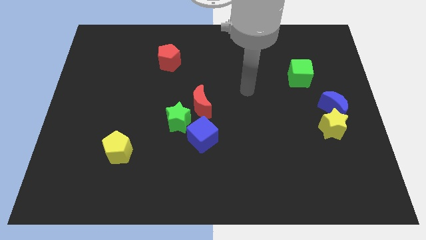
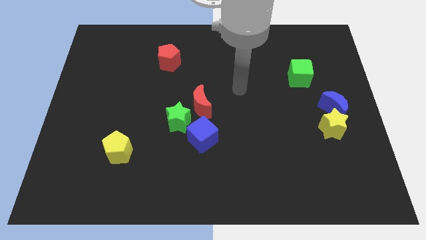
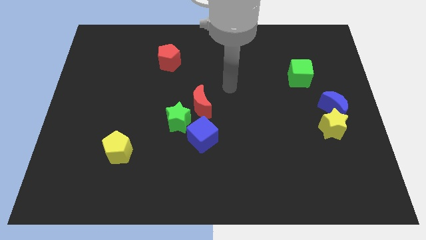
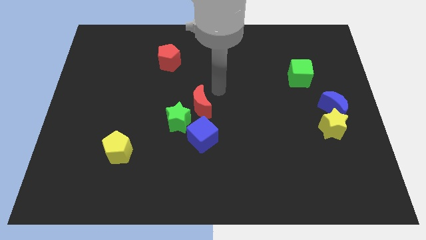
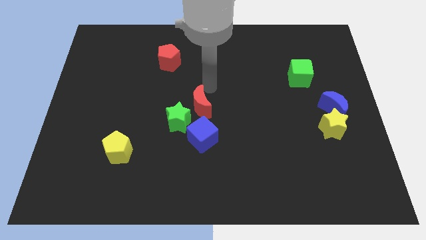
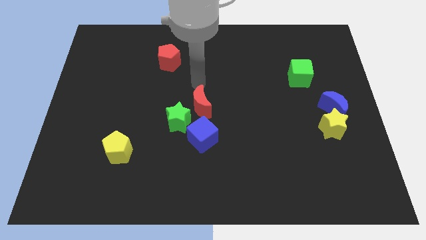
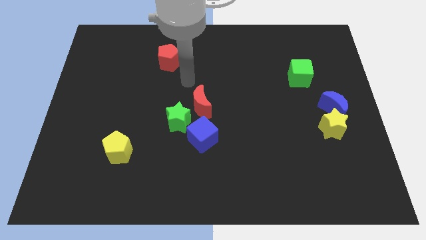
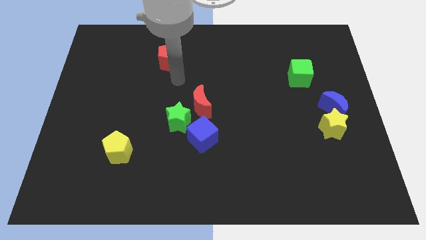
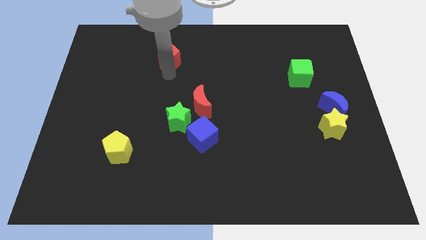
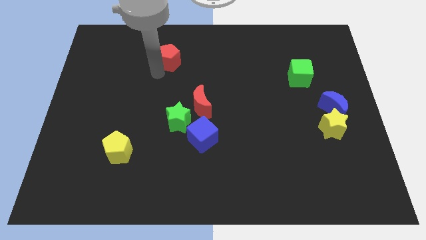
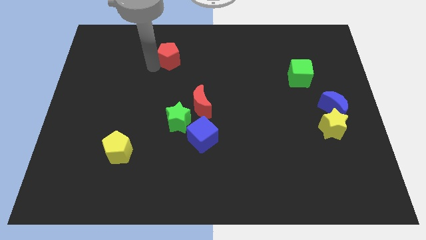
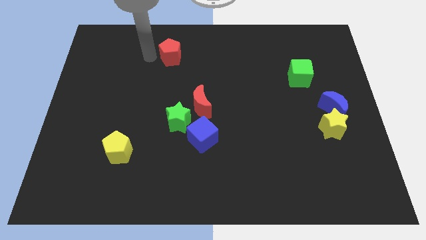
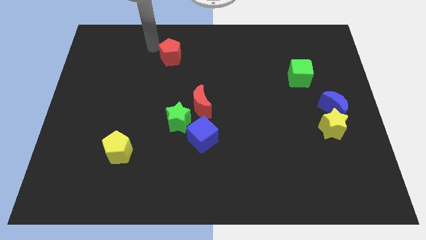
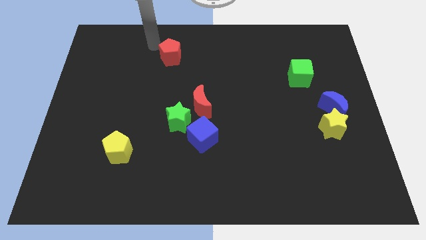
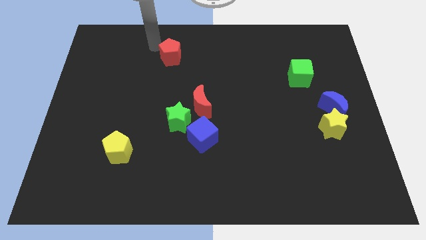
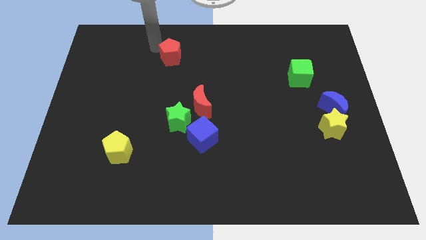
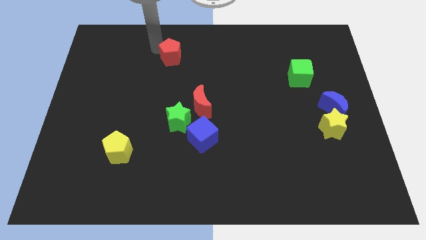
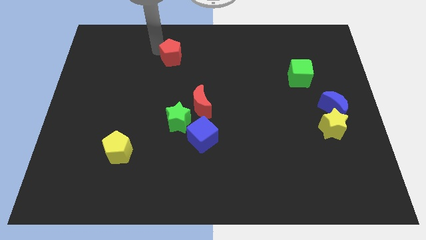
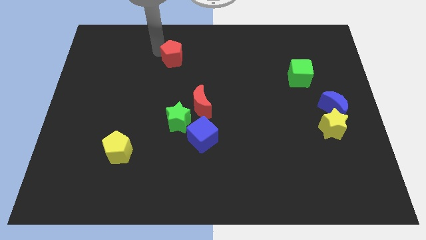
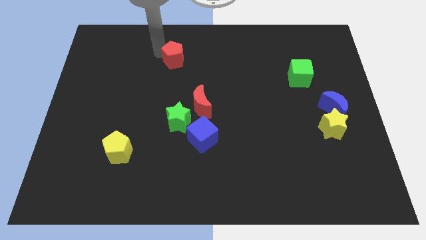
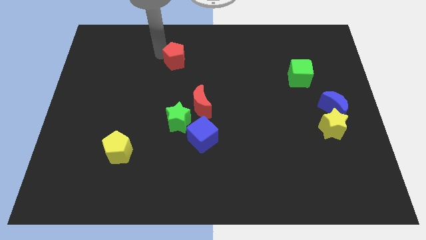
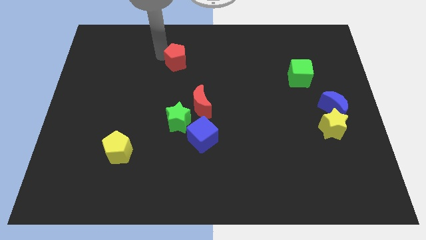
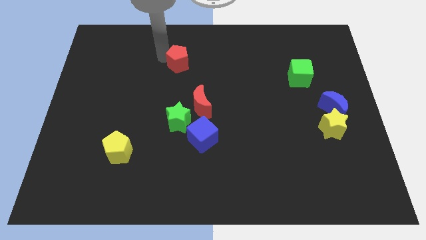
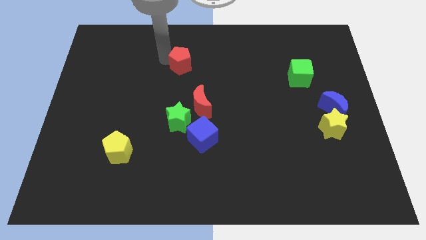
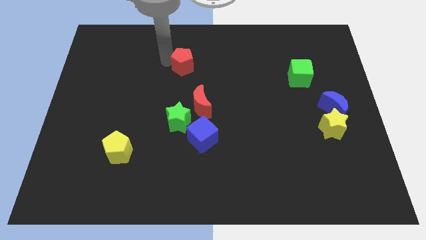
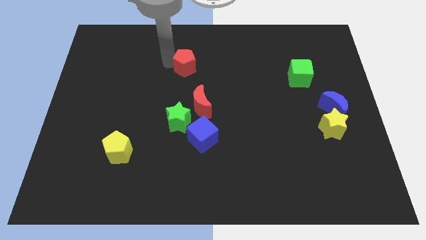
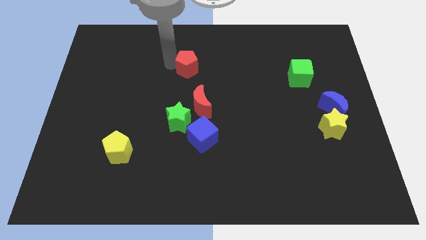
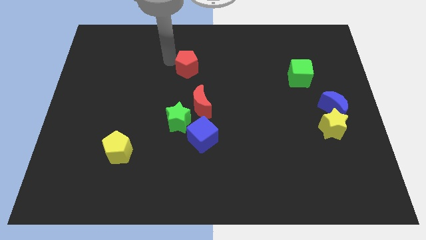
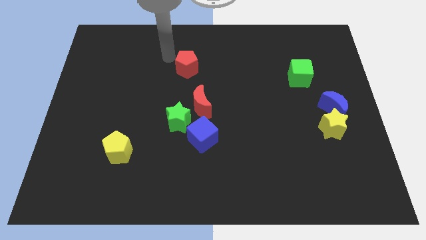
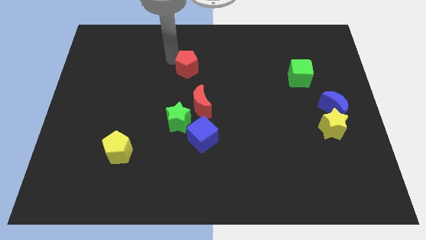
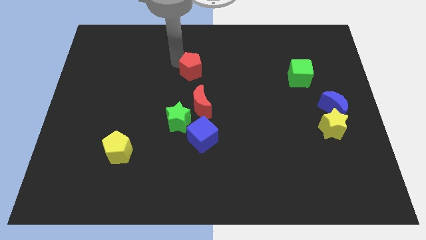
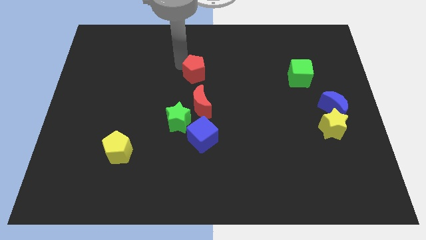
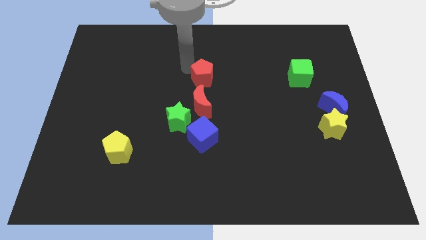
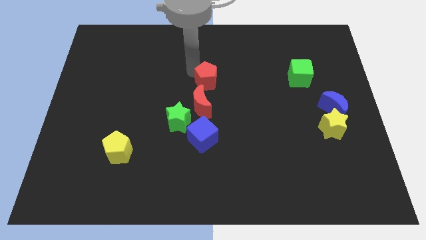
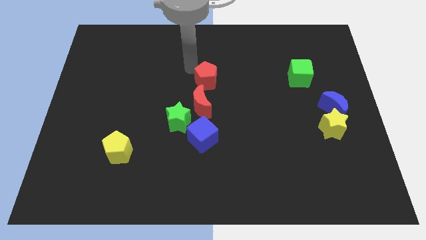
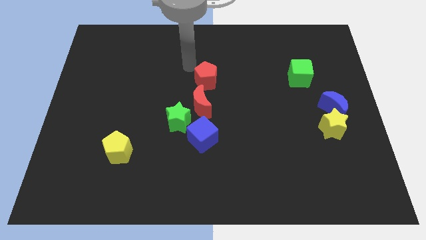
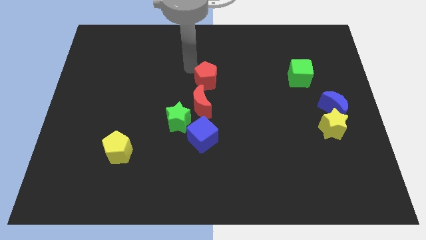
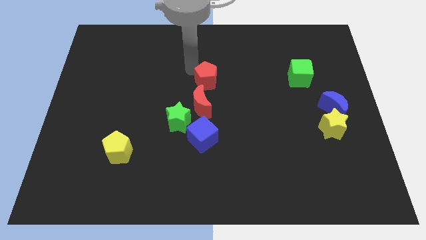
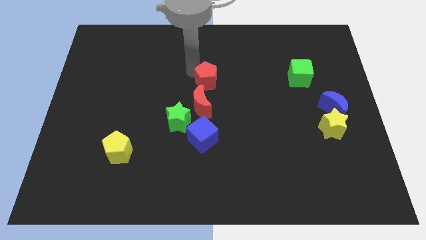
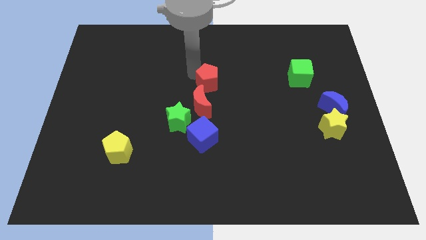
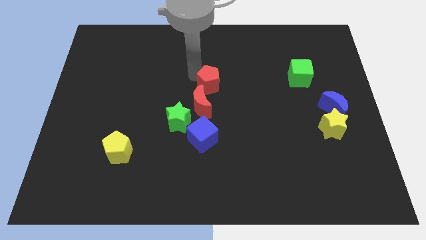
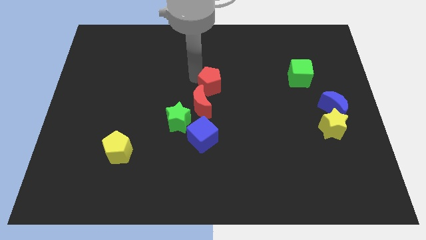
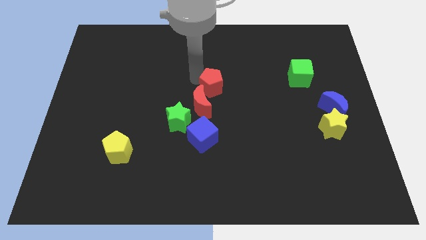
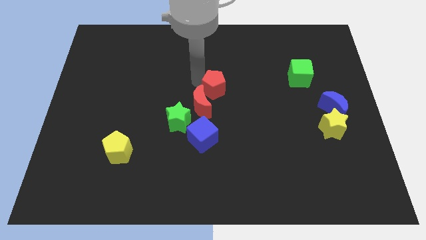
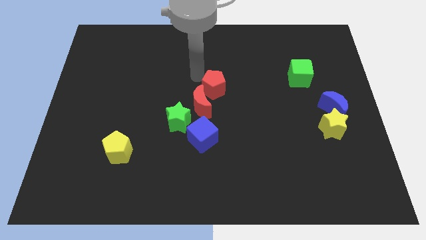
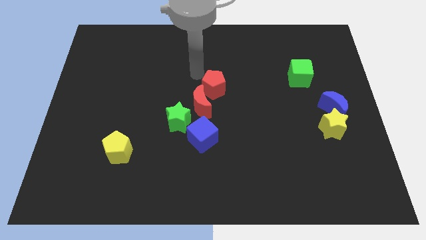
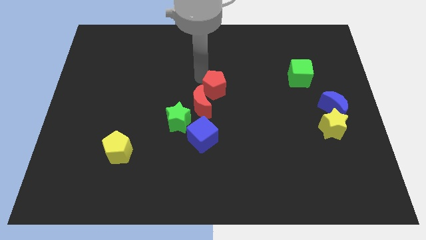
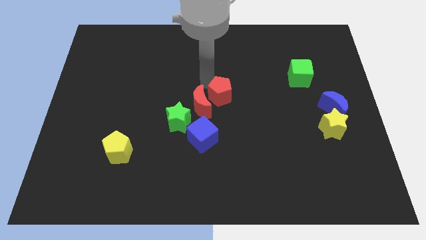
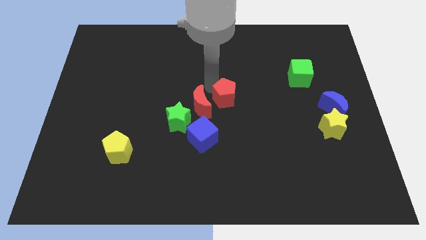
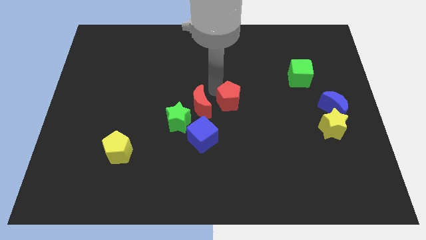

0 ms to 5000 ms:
move the red pentagon diagonally downwards and right

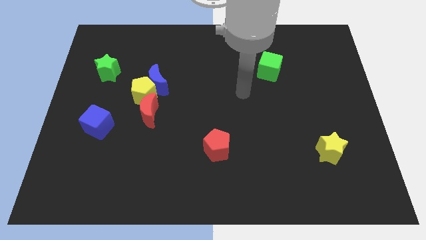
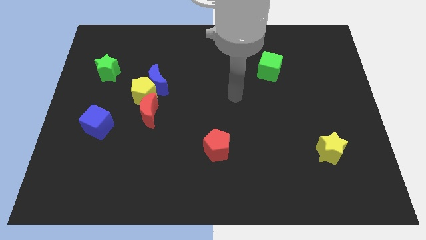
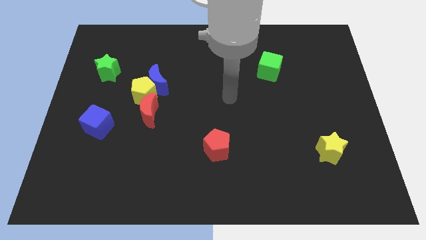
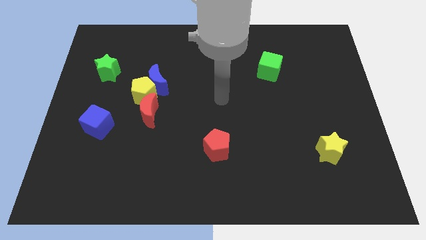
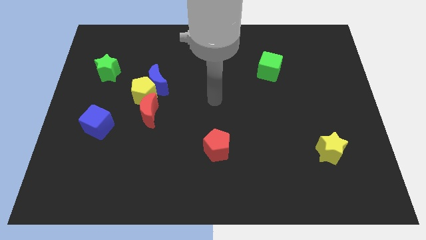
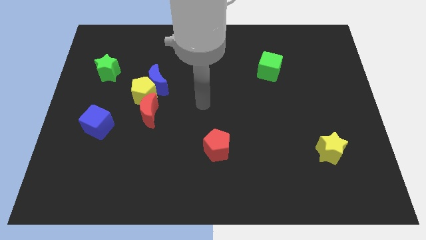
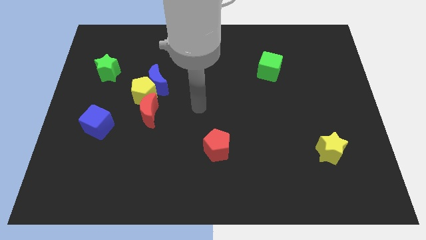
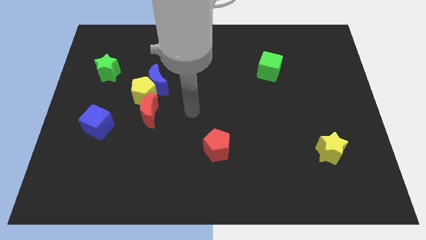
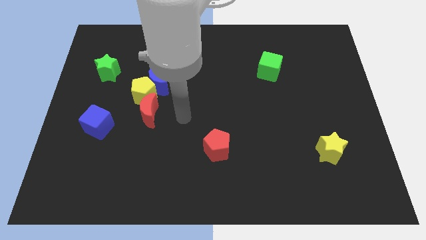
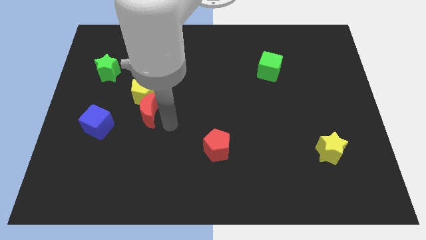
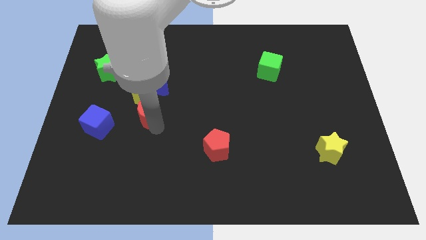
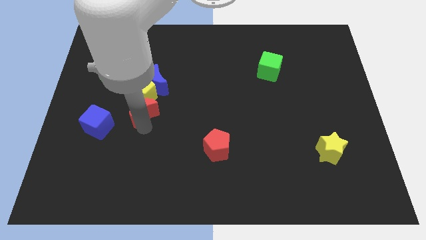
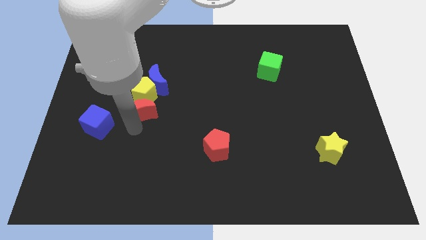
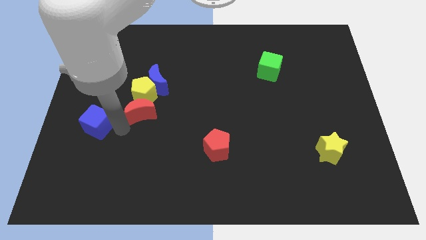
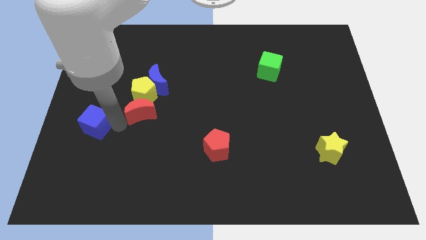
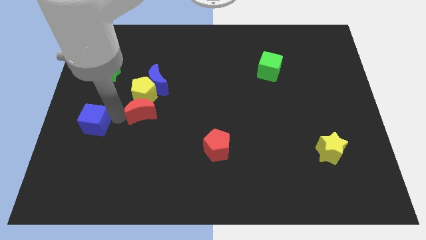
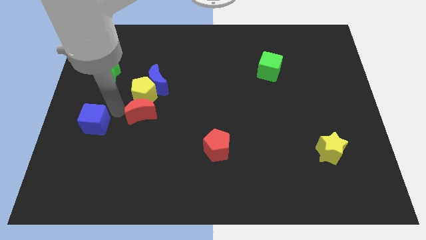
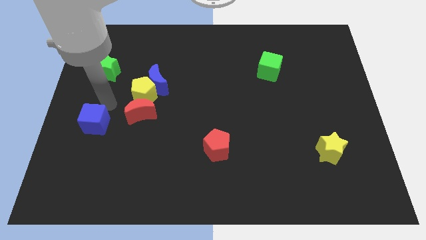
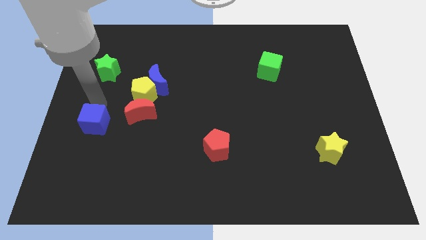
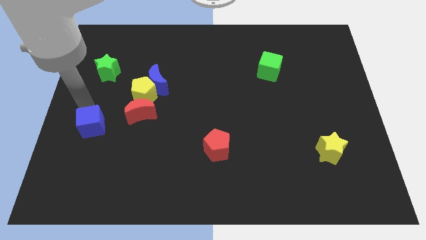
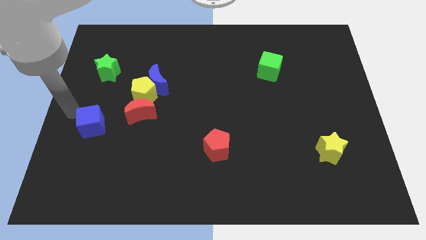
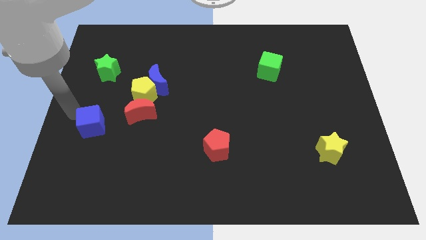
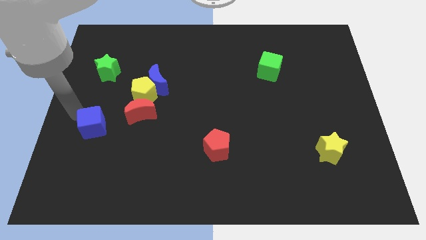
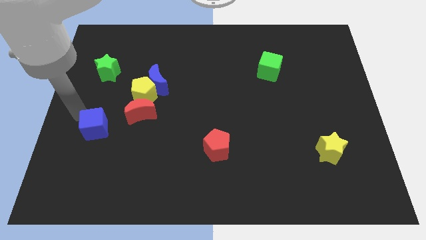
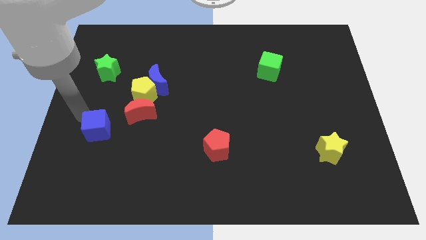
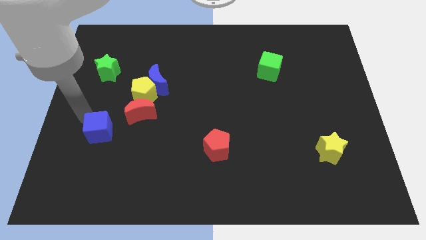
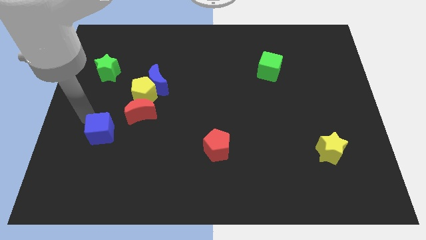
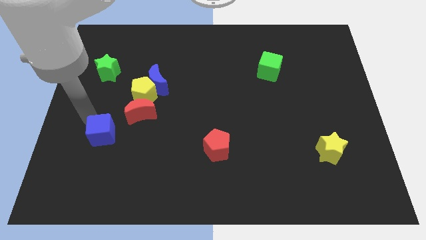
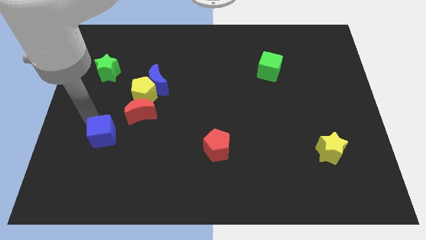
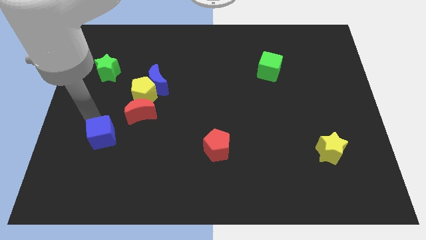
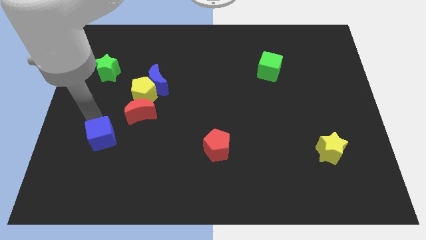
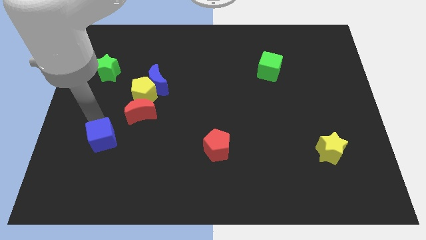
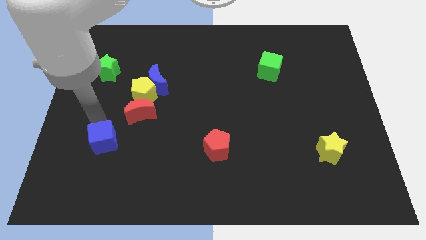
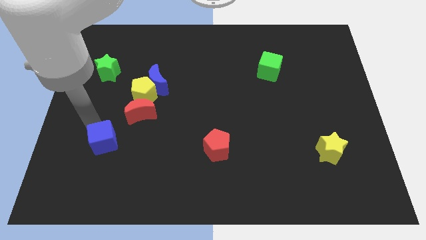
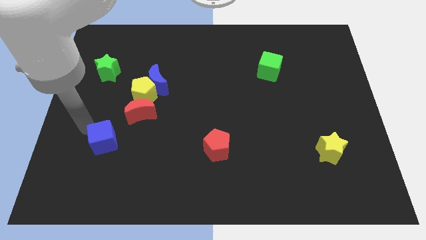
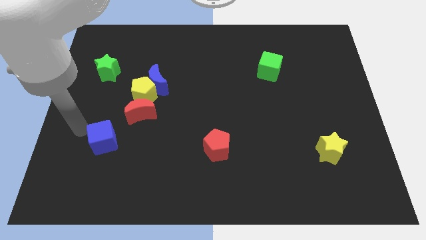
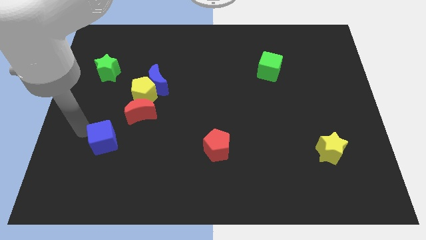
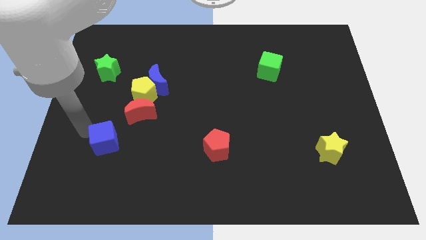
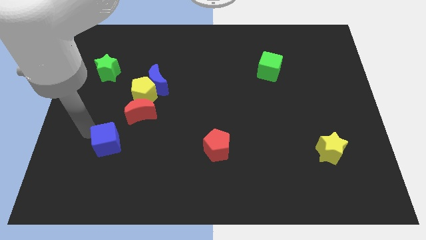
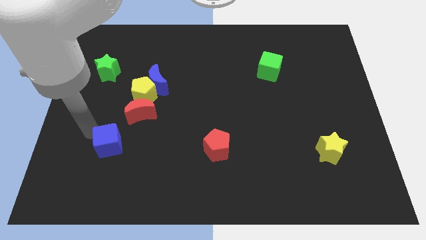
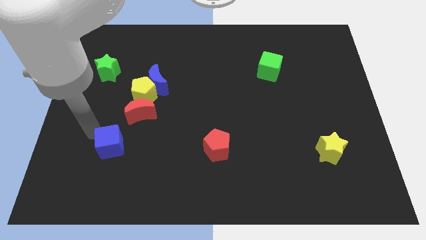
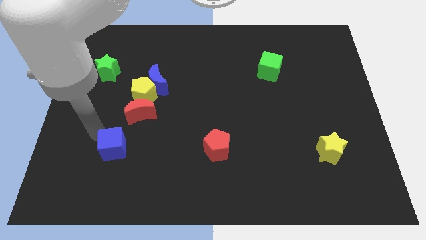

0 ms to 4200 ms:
slightly move the blue cube diagonally downwards and to the right
